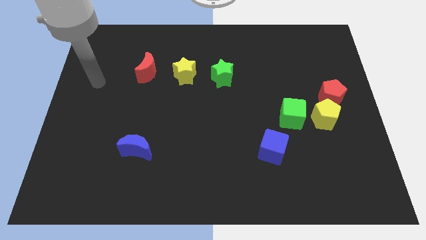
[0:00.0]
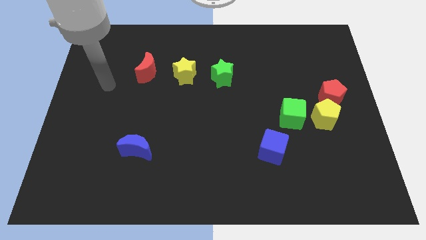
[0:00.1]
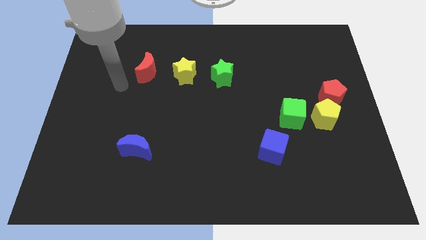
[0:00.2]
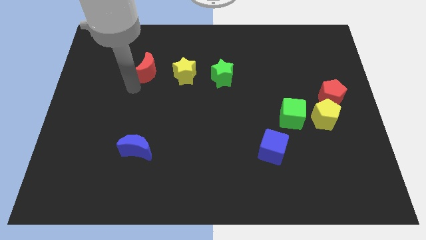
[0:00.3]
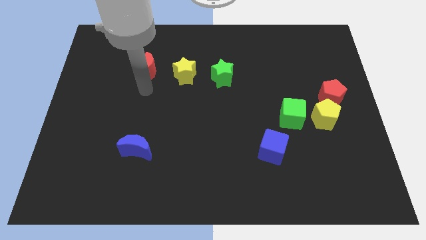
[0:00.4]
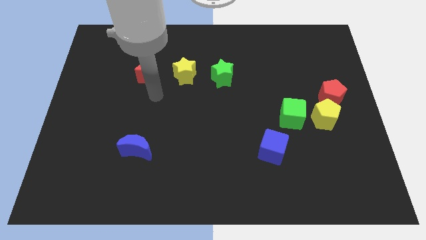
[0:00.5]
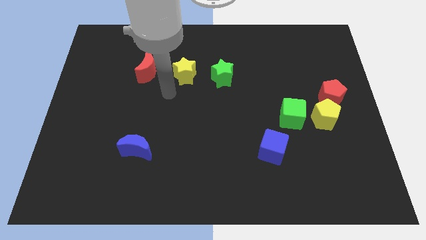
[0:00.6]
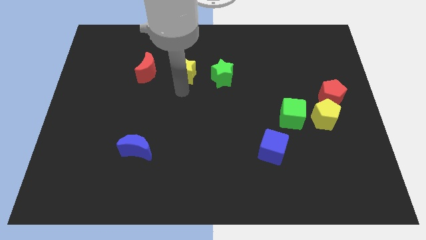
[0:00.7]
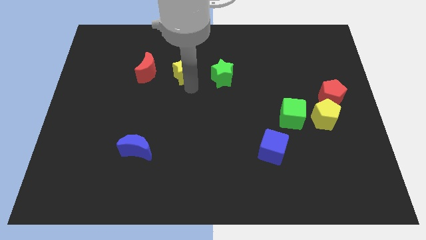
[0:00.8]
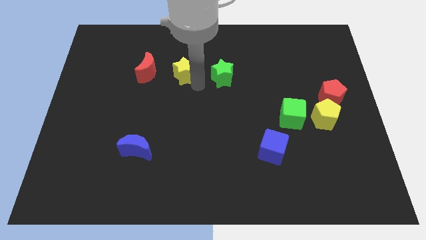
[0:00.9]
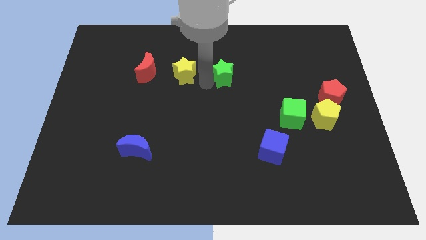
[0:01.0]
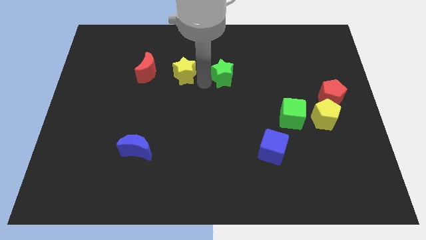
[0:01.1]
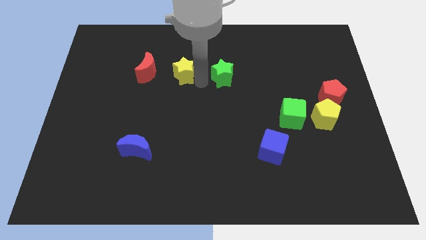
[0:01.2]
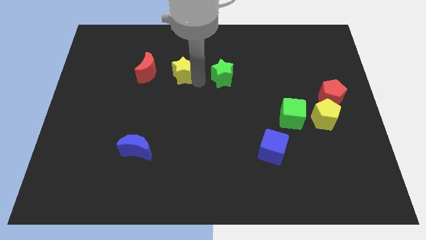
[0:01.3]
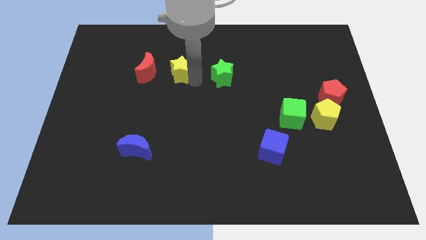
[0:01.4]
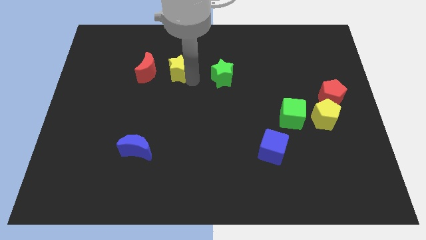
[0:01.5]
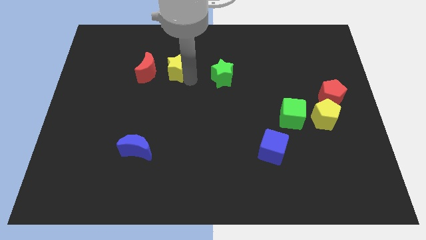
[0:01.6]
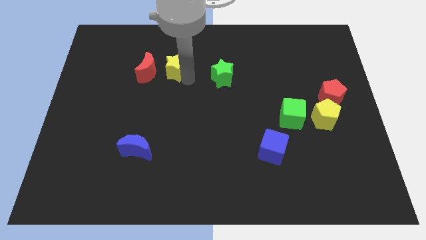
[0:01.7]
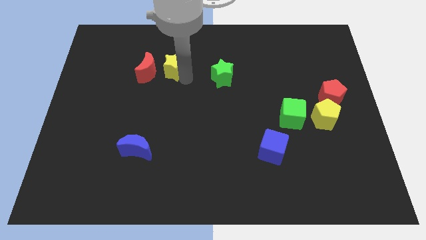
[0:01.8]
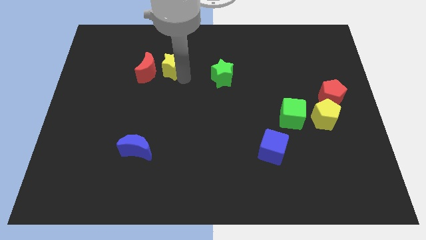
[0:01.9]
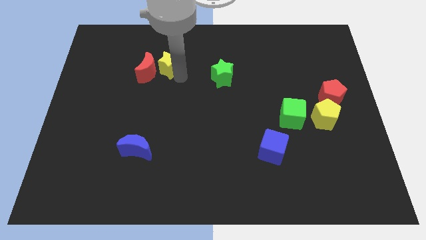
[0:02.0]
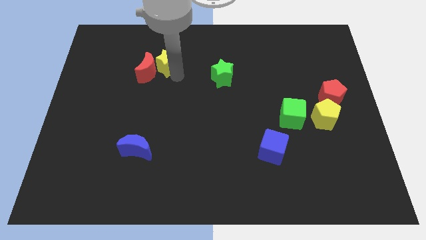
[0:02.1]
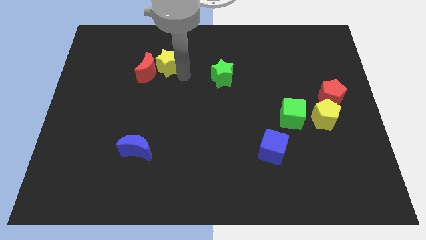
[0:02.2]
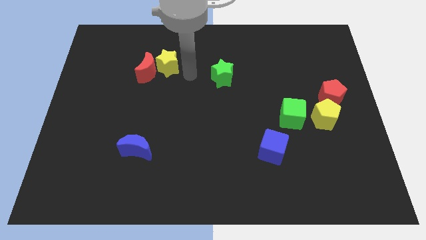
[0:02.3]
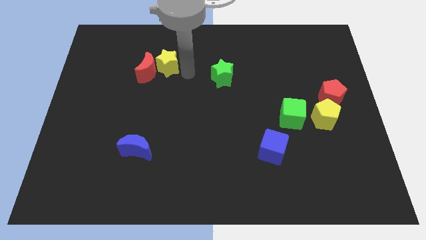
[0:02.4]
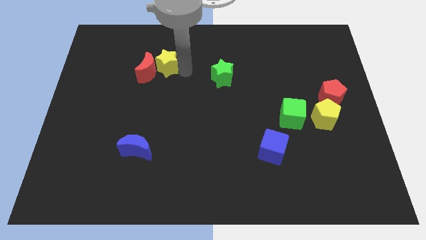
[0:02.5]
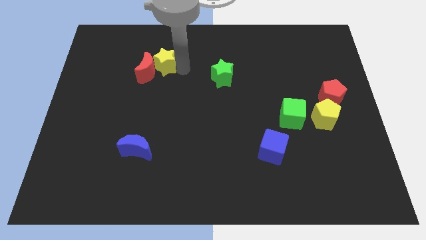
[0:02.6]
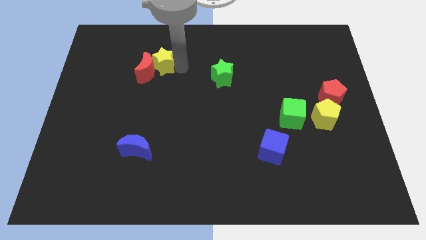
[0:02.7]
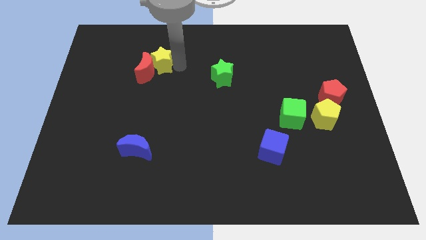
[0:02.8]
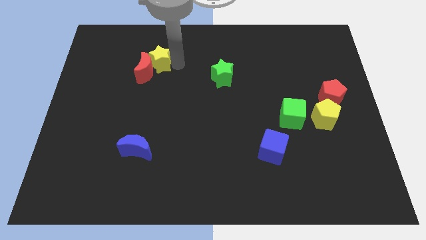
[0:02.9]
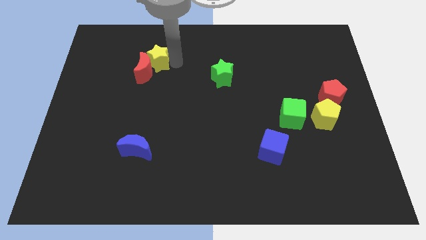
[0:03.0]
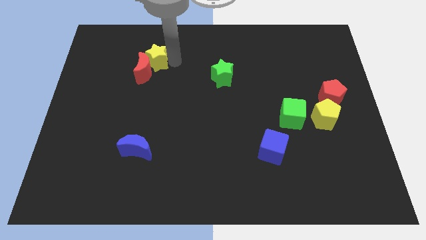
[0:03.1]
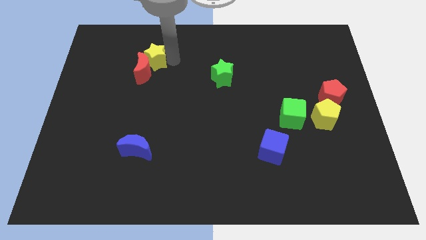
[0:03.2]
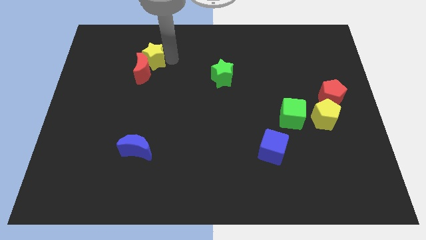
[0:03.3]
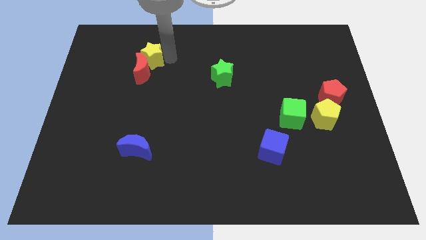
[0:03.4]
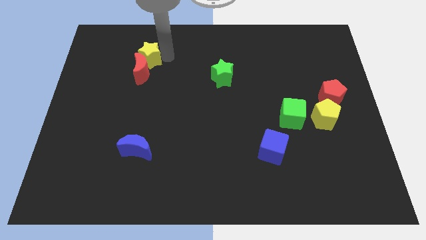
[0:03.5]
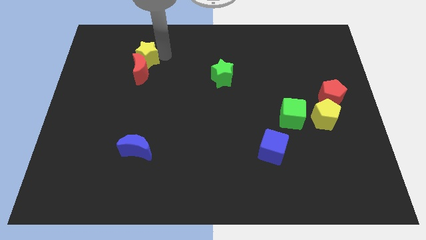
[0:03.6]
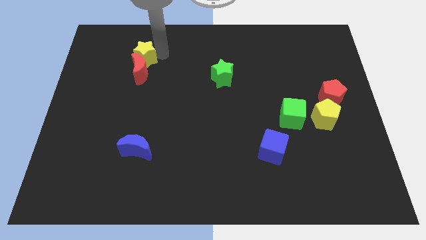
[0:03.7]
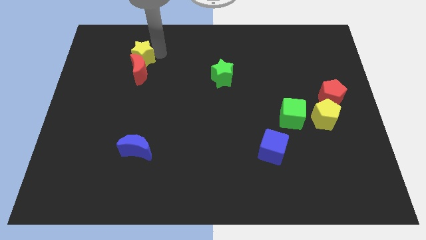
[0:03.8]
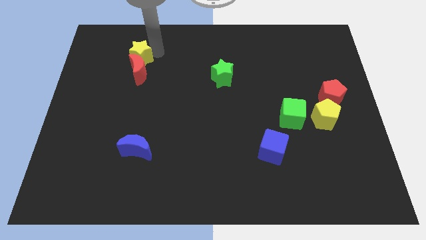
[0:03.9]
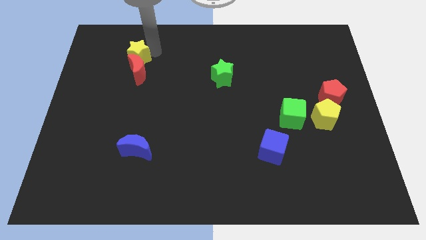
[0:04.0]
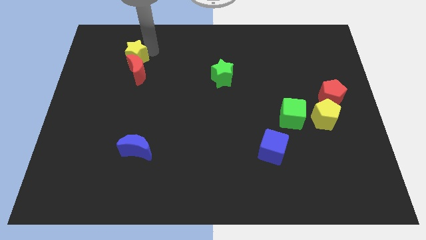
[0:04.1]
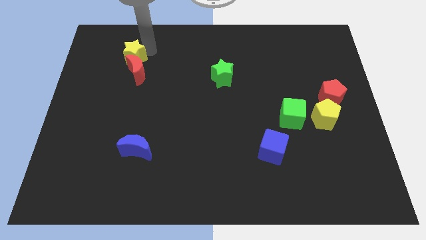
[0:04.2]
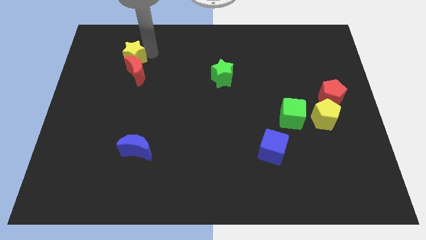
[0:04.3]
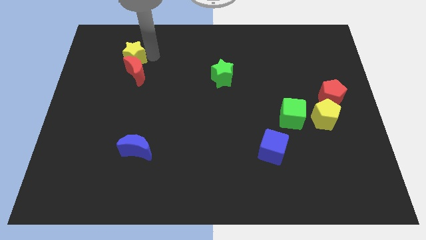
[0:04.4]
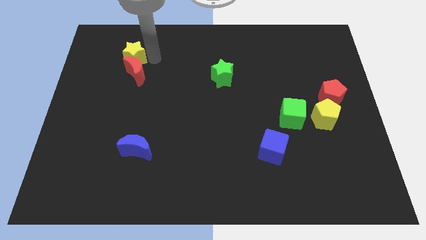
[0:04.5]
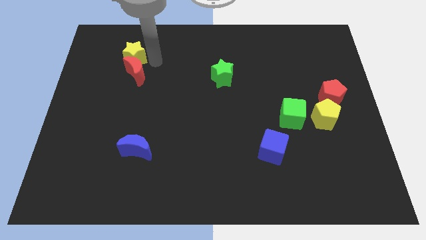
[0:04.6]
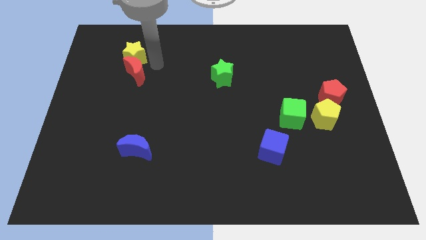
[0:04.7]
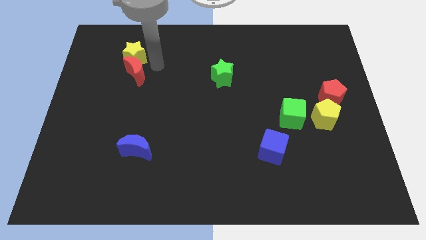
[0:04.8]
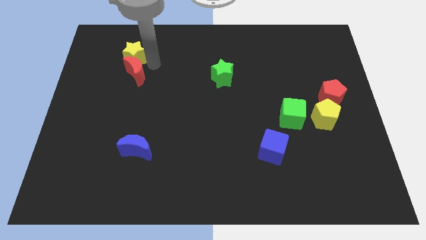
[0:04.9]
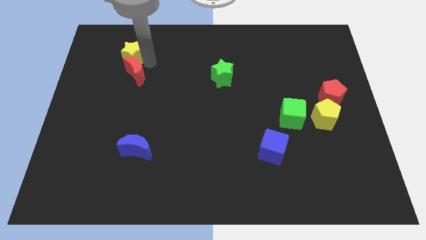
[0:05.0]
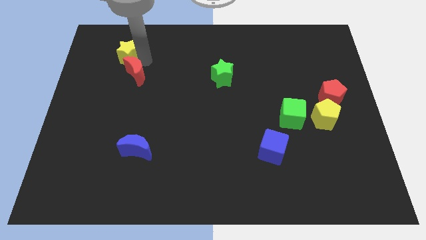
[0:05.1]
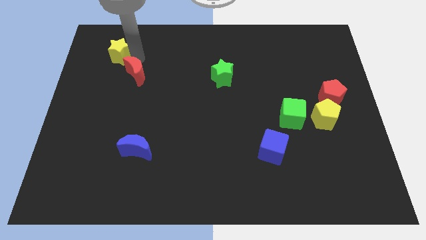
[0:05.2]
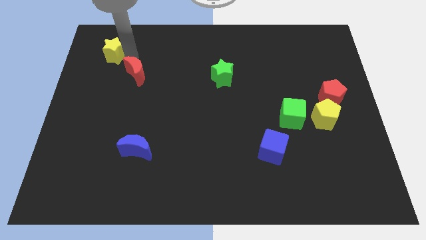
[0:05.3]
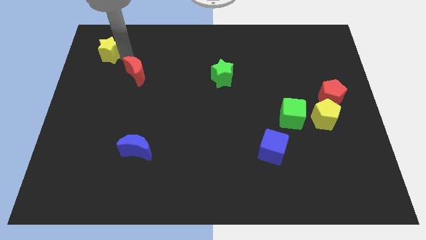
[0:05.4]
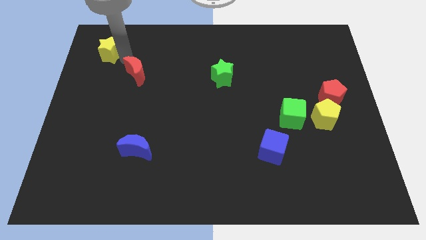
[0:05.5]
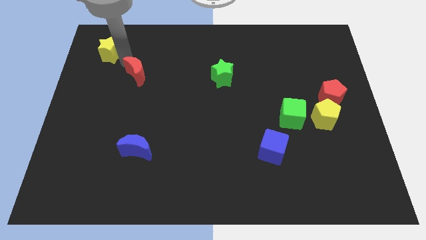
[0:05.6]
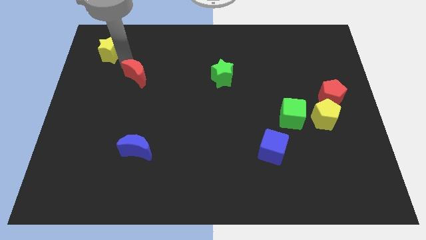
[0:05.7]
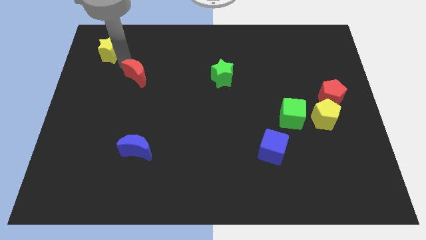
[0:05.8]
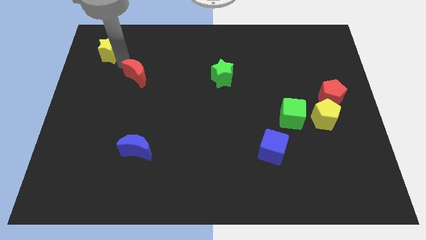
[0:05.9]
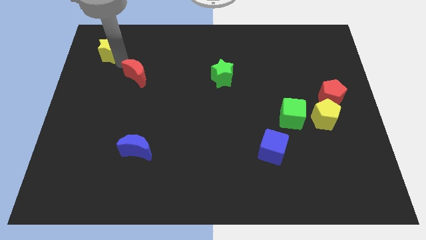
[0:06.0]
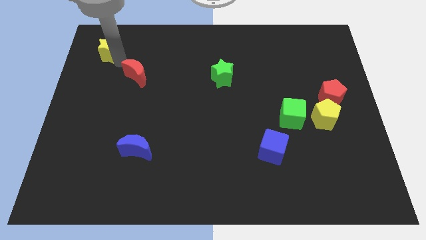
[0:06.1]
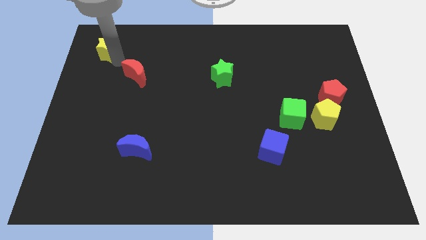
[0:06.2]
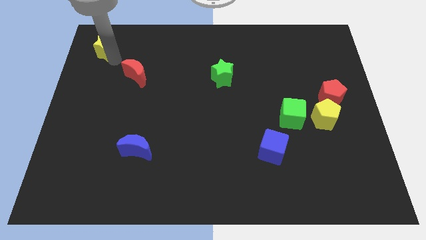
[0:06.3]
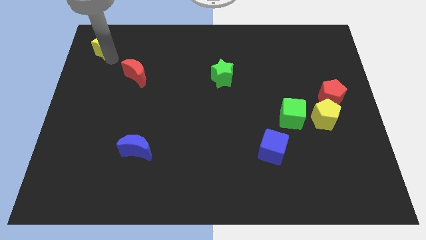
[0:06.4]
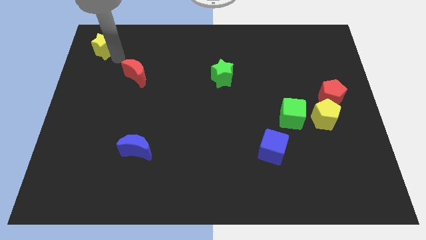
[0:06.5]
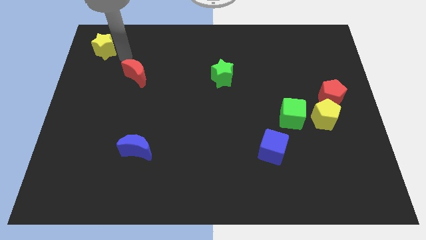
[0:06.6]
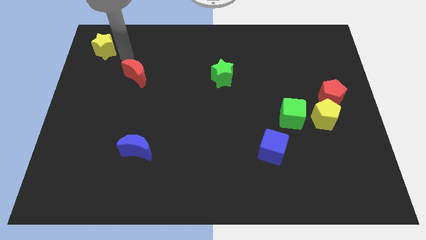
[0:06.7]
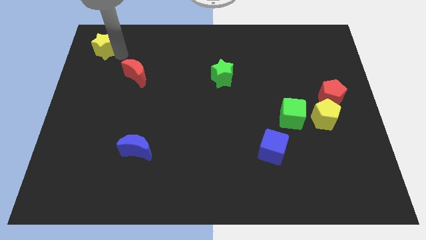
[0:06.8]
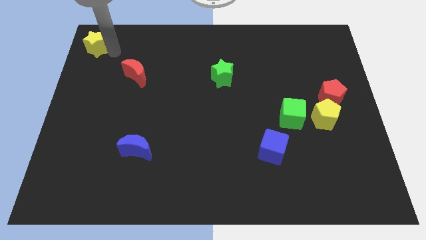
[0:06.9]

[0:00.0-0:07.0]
move the yellow star to the upper left corner

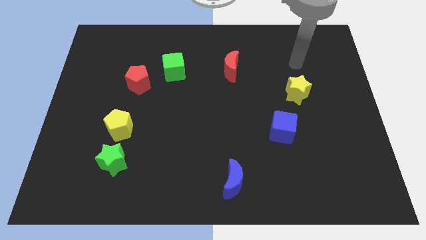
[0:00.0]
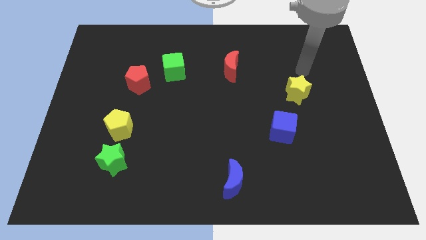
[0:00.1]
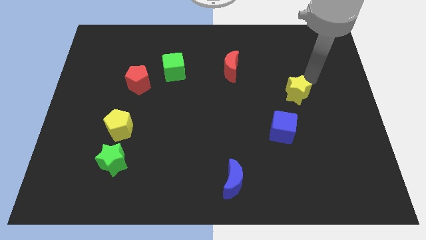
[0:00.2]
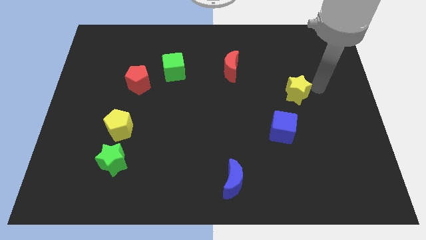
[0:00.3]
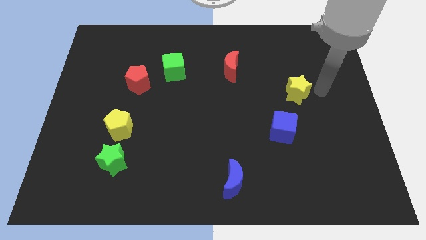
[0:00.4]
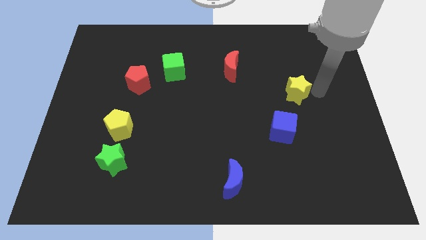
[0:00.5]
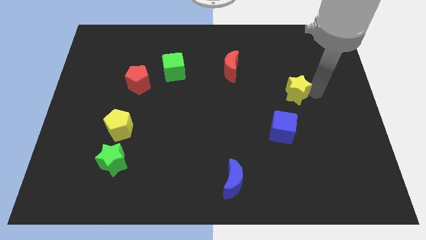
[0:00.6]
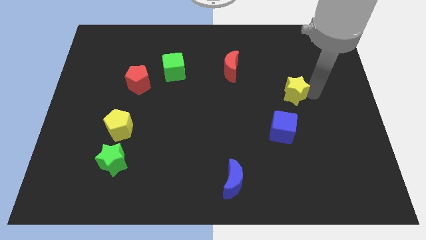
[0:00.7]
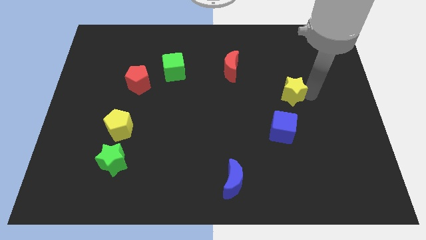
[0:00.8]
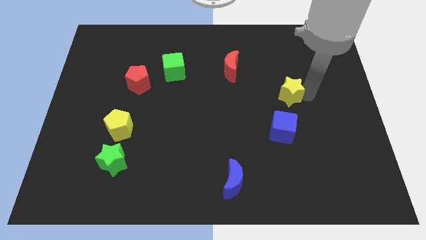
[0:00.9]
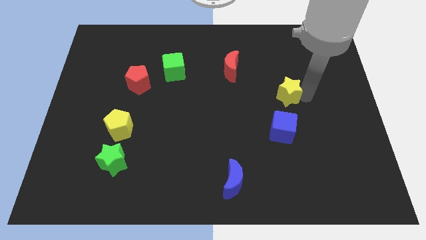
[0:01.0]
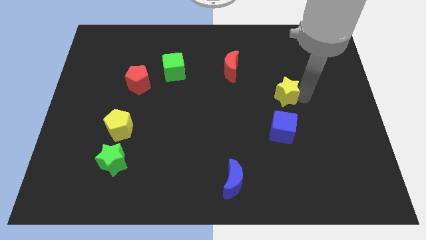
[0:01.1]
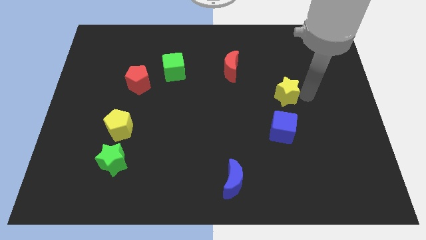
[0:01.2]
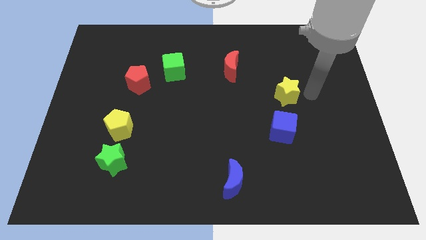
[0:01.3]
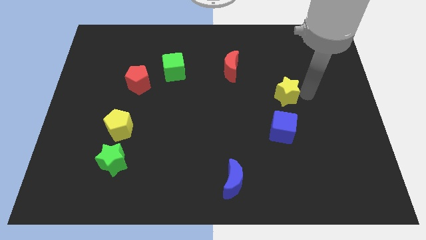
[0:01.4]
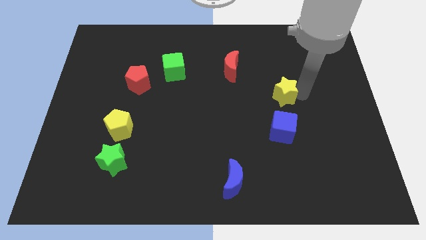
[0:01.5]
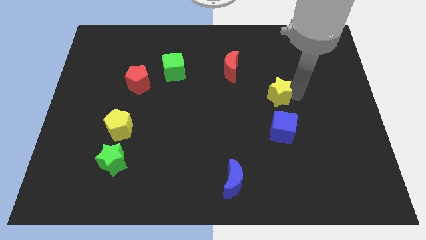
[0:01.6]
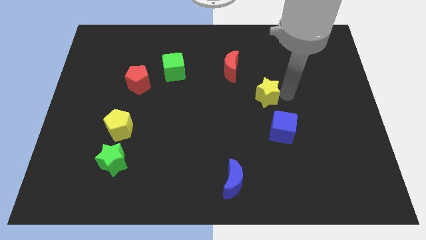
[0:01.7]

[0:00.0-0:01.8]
move the yellow star to the center of the board
